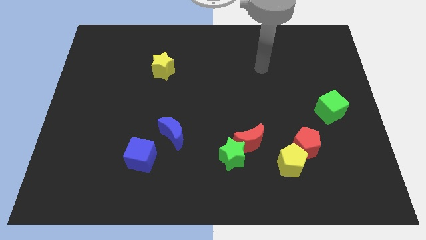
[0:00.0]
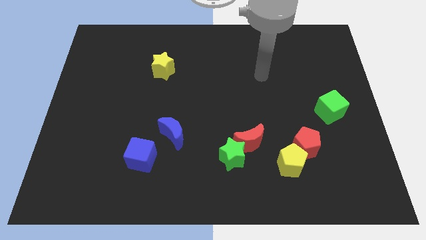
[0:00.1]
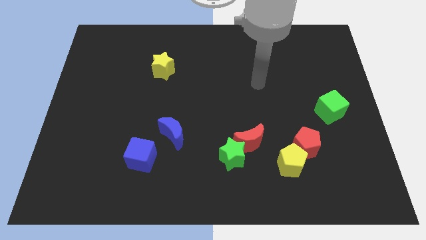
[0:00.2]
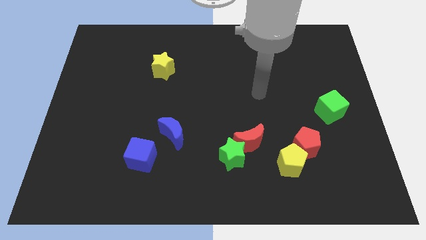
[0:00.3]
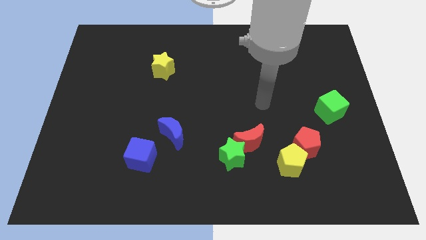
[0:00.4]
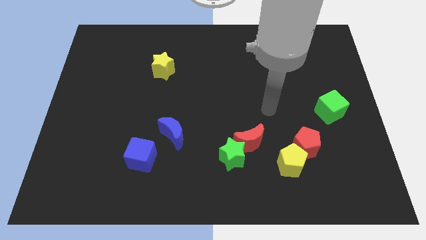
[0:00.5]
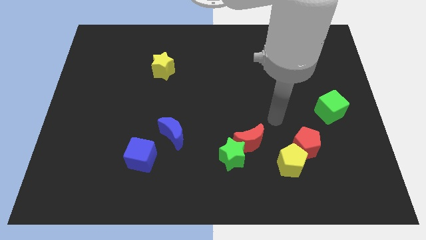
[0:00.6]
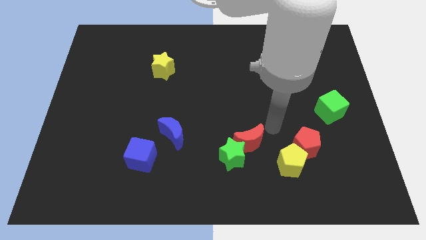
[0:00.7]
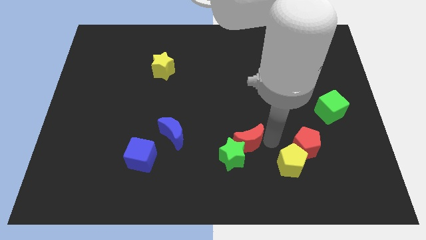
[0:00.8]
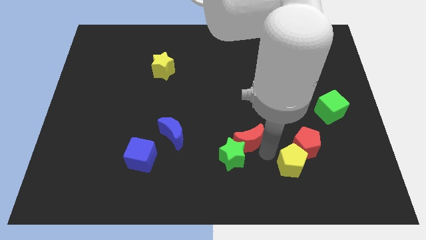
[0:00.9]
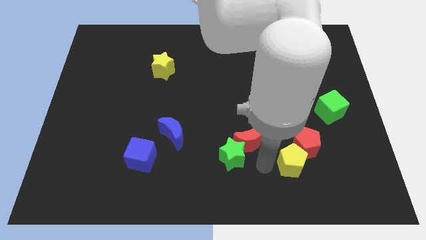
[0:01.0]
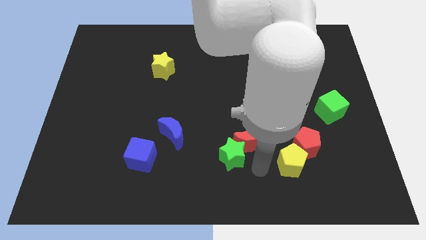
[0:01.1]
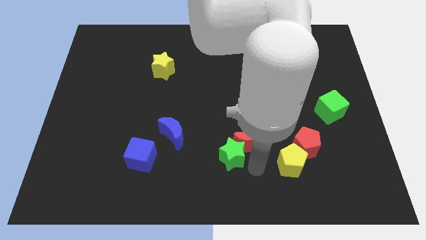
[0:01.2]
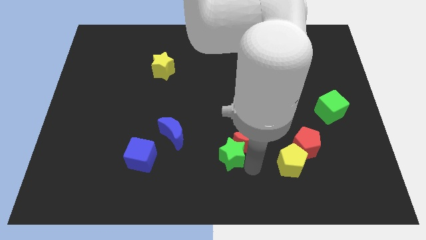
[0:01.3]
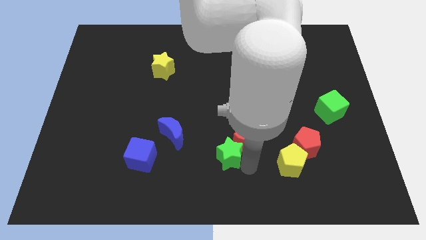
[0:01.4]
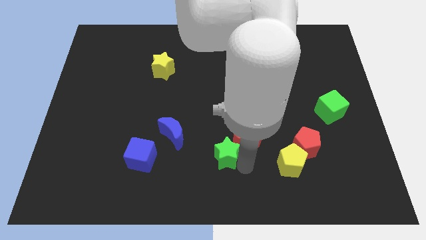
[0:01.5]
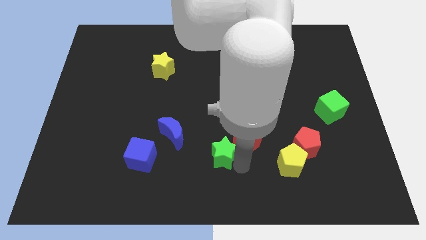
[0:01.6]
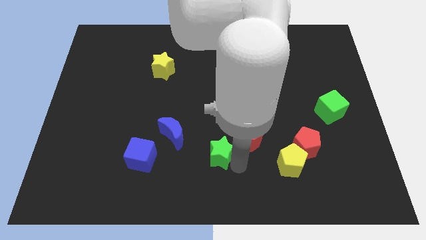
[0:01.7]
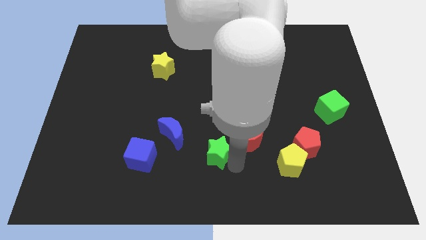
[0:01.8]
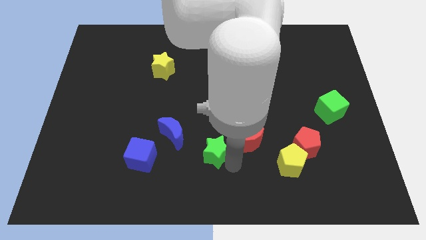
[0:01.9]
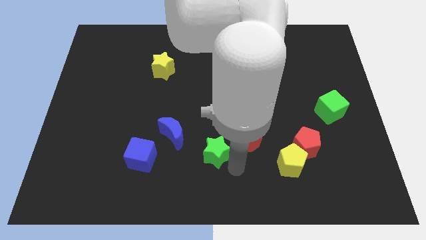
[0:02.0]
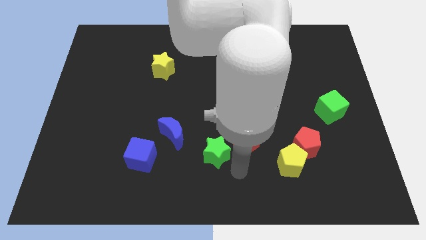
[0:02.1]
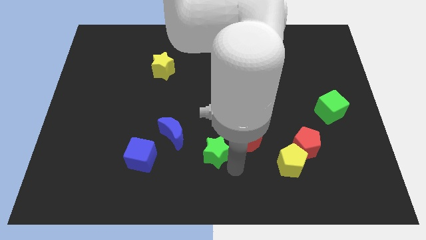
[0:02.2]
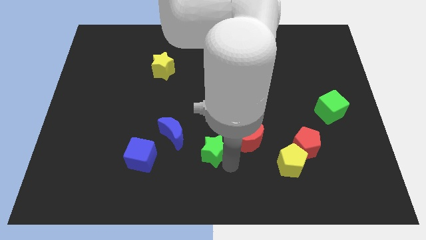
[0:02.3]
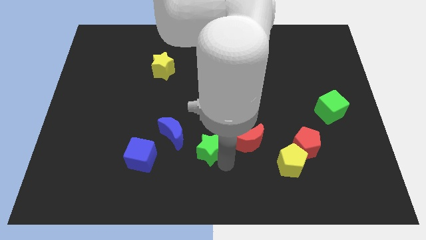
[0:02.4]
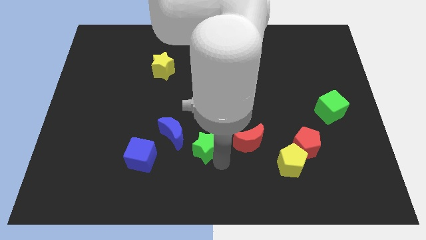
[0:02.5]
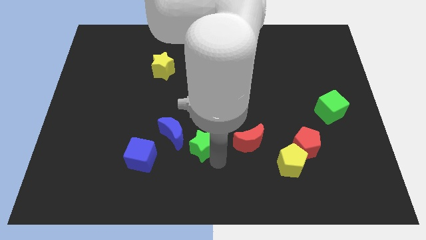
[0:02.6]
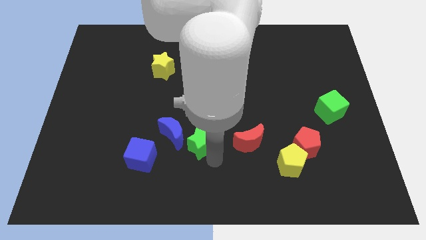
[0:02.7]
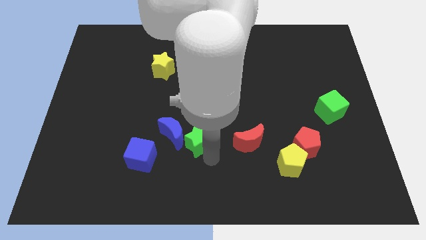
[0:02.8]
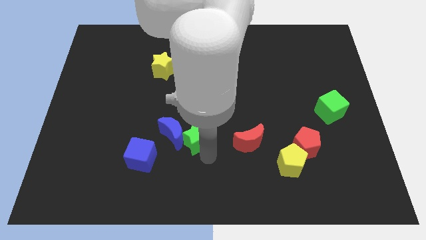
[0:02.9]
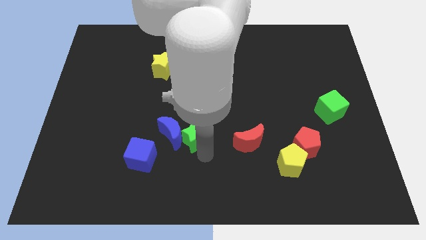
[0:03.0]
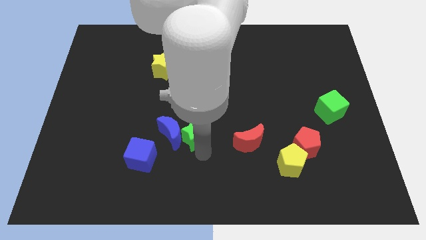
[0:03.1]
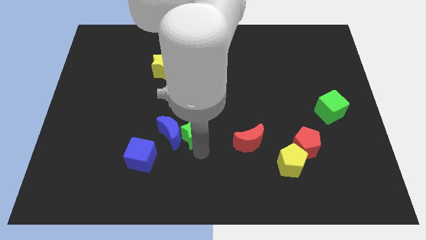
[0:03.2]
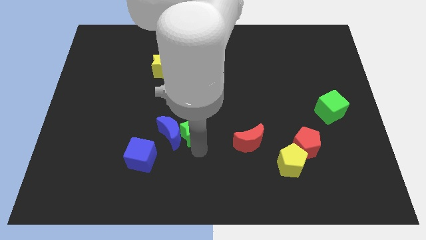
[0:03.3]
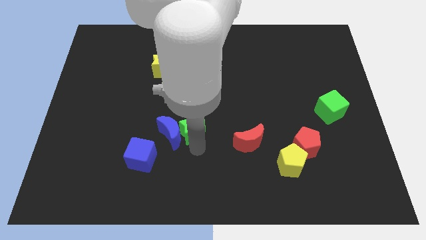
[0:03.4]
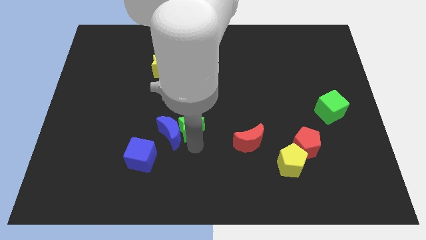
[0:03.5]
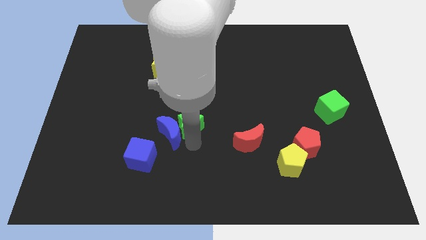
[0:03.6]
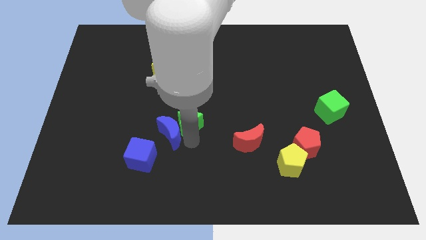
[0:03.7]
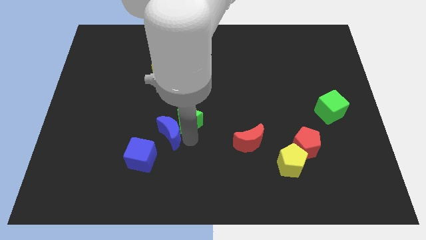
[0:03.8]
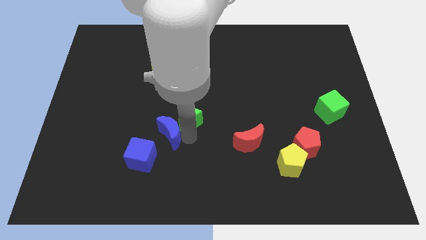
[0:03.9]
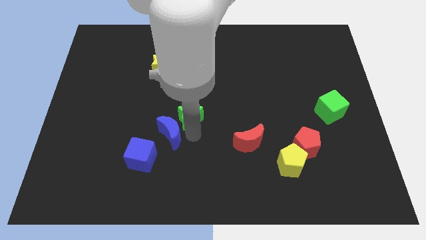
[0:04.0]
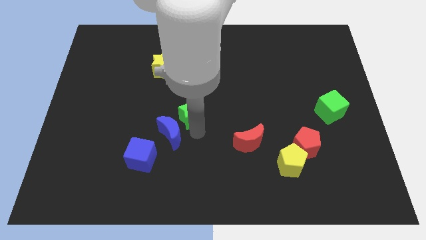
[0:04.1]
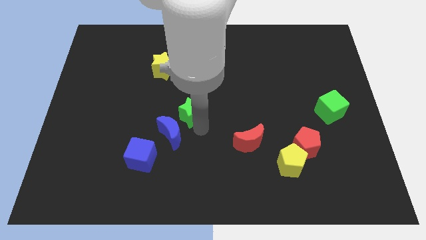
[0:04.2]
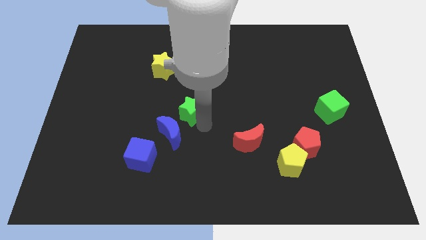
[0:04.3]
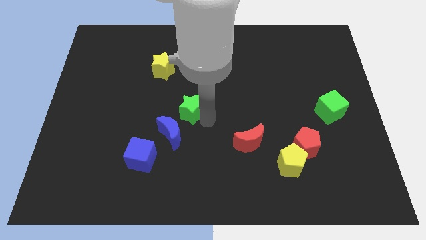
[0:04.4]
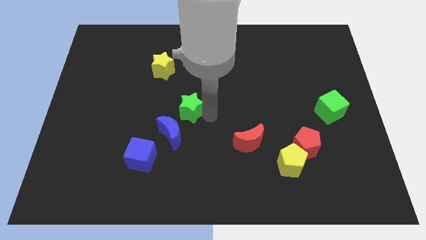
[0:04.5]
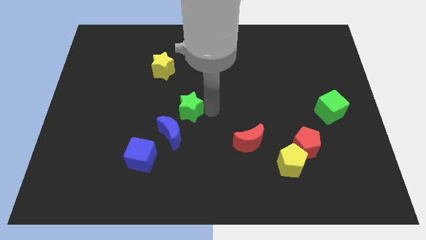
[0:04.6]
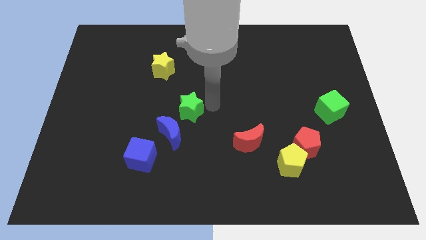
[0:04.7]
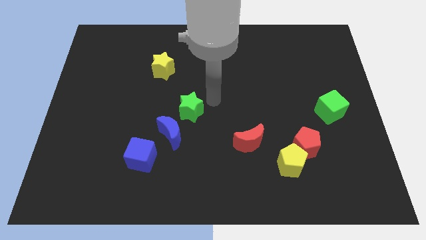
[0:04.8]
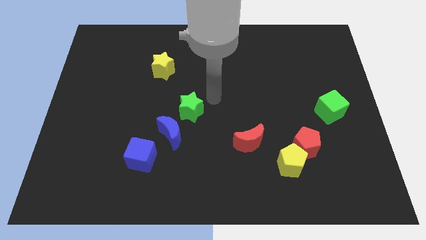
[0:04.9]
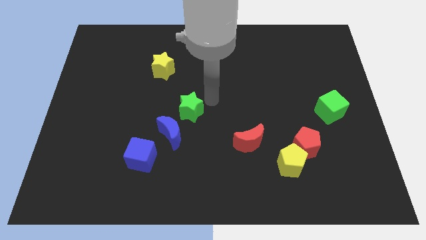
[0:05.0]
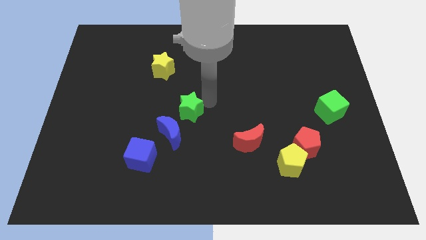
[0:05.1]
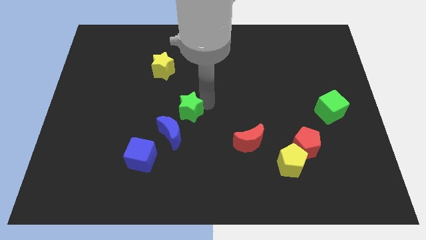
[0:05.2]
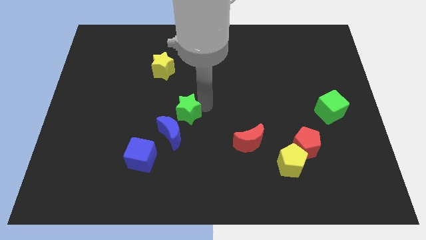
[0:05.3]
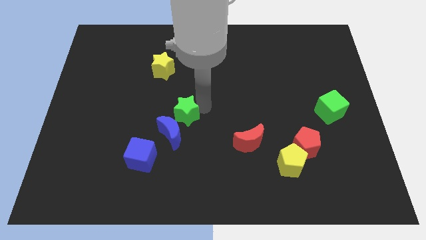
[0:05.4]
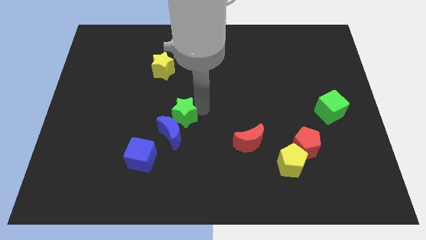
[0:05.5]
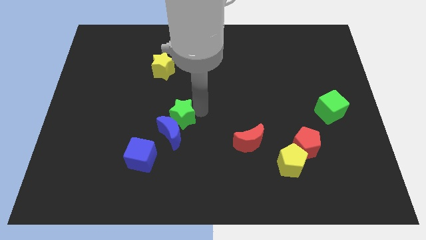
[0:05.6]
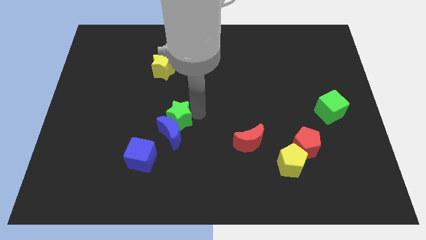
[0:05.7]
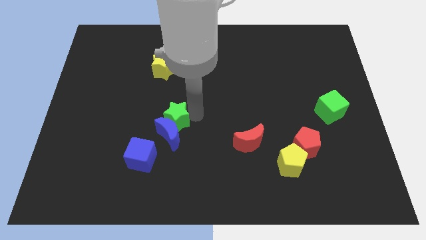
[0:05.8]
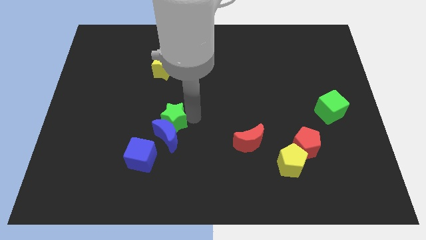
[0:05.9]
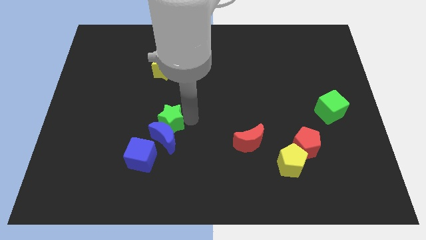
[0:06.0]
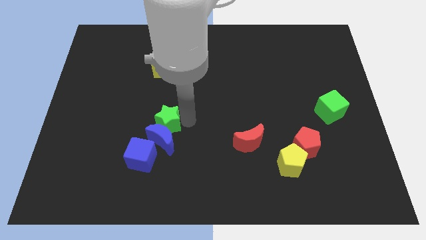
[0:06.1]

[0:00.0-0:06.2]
put the green star to the top of the blue cube

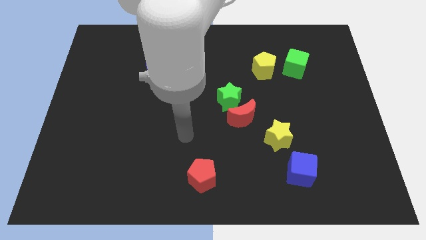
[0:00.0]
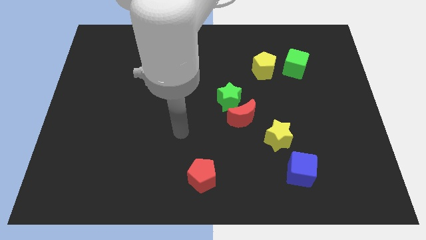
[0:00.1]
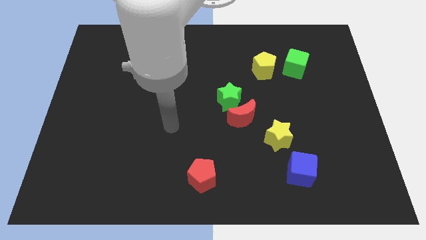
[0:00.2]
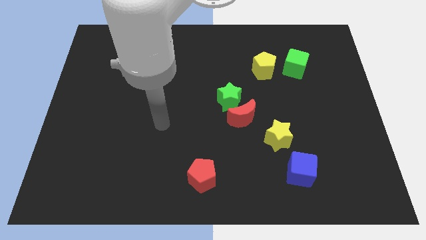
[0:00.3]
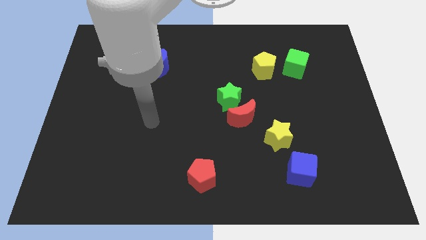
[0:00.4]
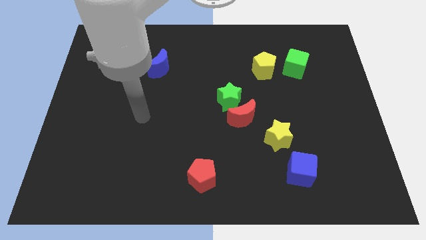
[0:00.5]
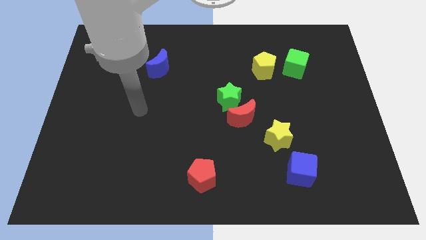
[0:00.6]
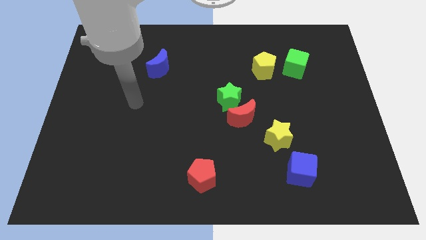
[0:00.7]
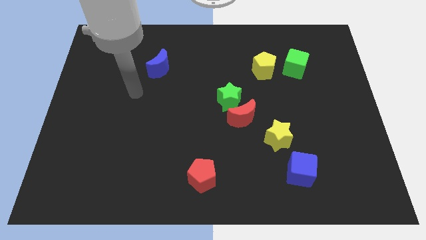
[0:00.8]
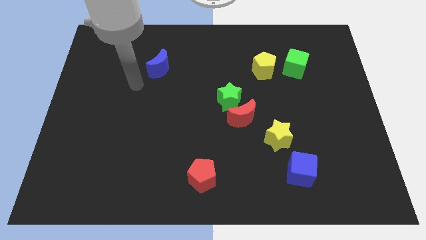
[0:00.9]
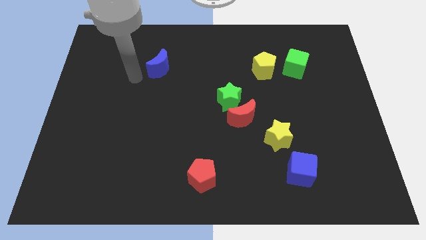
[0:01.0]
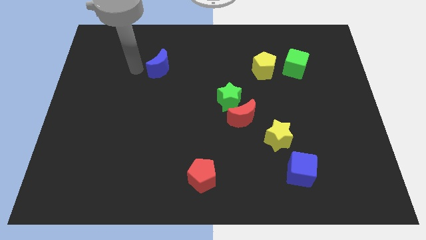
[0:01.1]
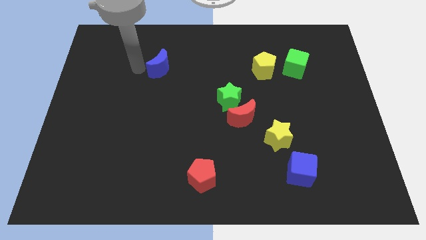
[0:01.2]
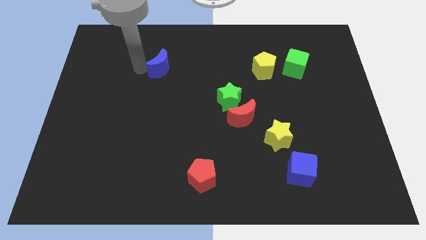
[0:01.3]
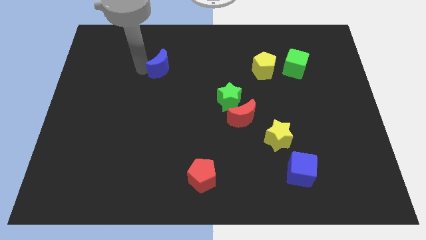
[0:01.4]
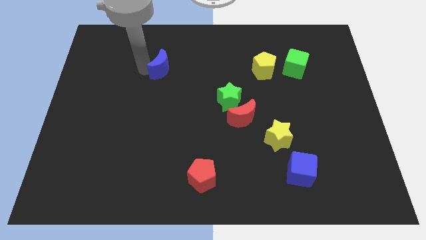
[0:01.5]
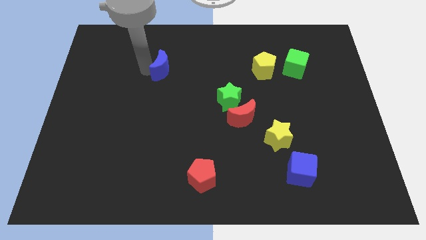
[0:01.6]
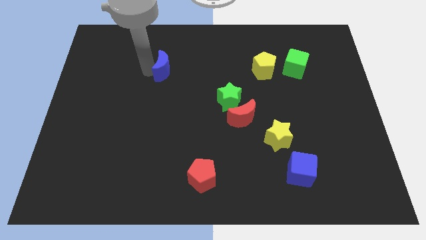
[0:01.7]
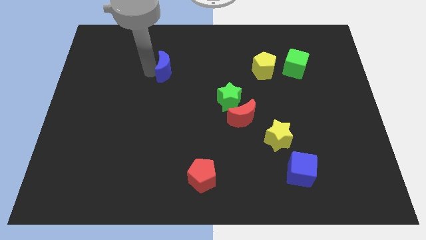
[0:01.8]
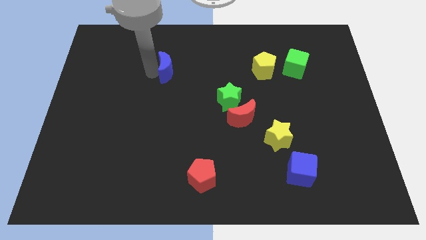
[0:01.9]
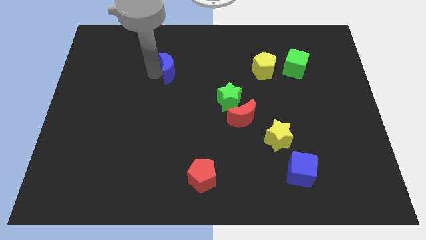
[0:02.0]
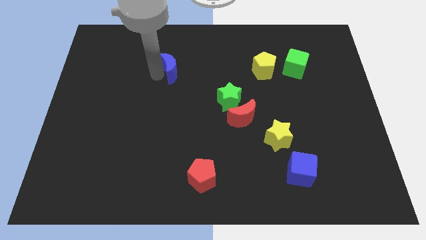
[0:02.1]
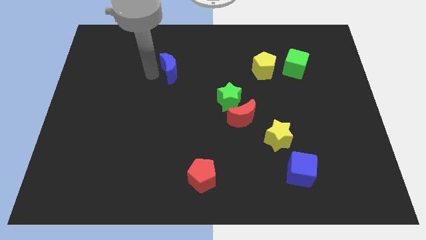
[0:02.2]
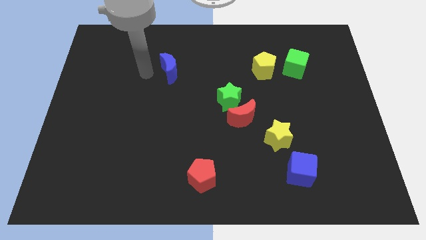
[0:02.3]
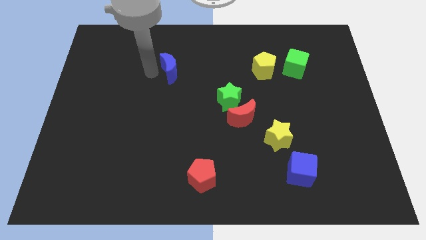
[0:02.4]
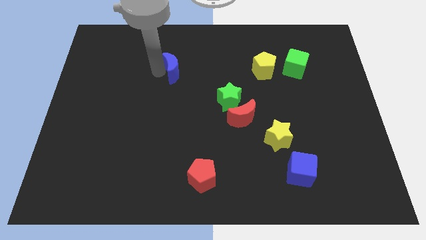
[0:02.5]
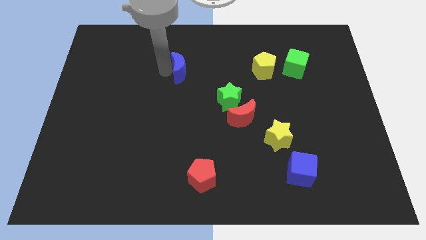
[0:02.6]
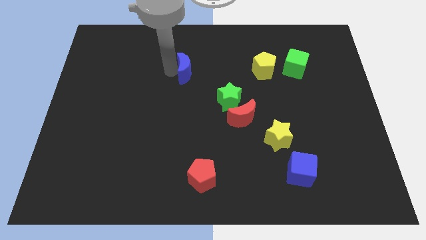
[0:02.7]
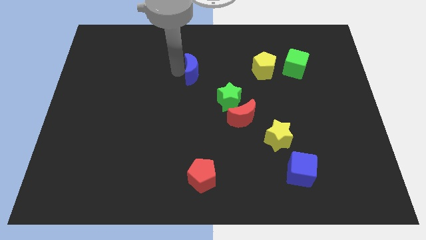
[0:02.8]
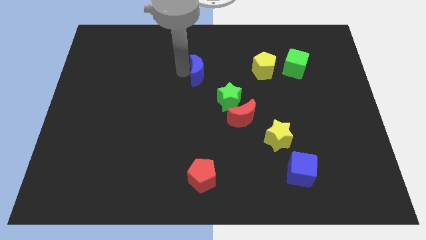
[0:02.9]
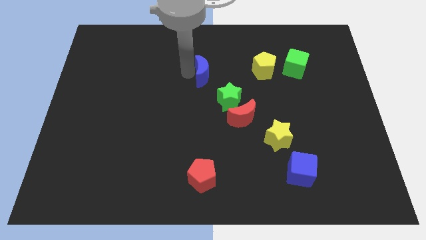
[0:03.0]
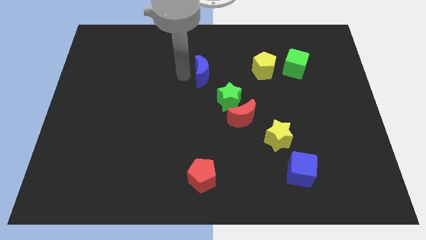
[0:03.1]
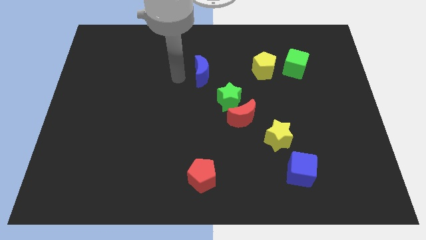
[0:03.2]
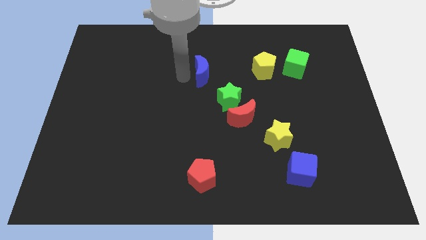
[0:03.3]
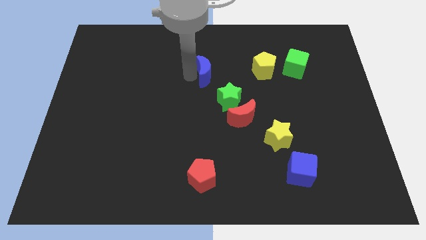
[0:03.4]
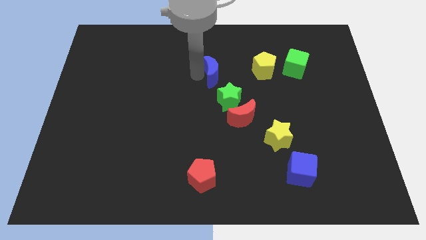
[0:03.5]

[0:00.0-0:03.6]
slide the blue moon above the green star
